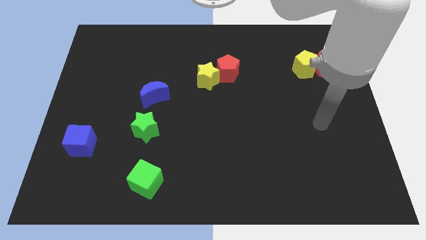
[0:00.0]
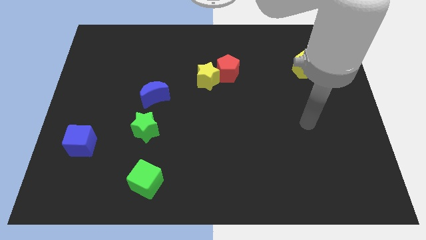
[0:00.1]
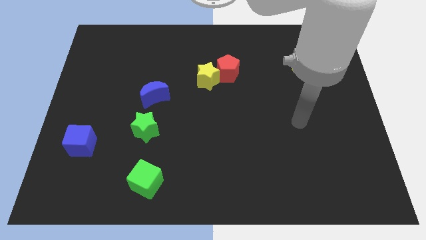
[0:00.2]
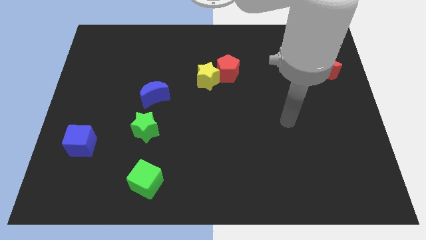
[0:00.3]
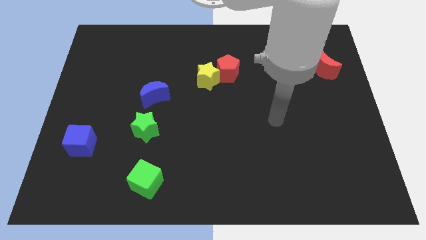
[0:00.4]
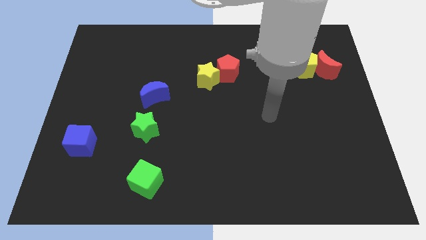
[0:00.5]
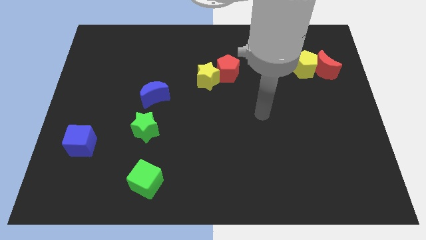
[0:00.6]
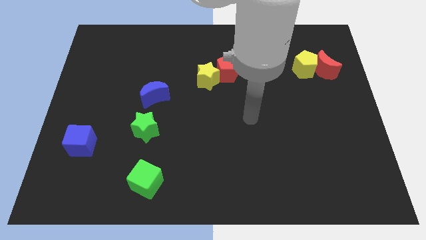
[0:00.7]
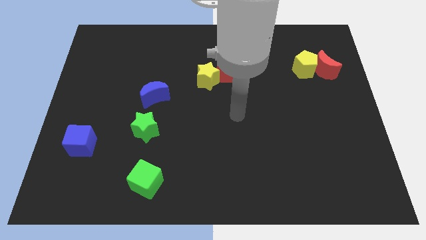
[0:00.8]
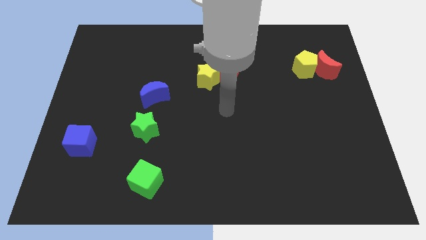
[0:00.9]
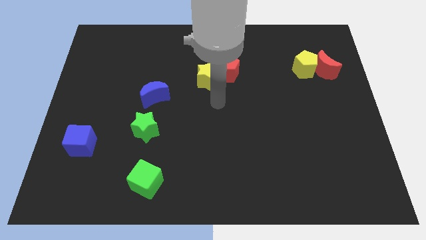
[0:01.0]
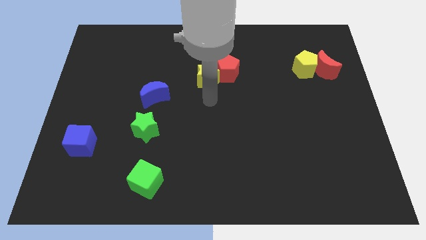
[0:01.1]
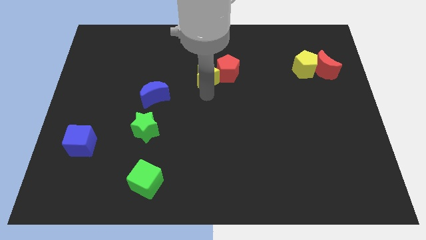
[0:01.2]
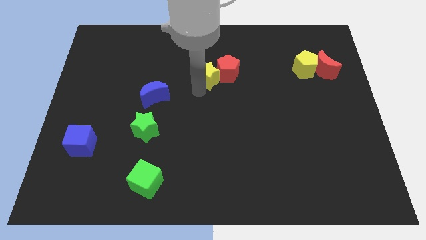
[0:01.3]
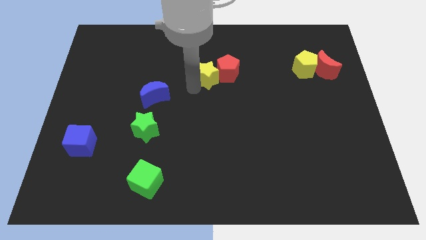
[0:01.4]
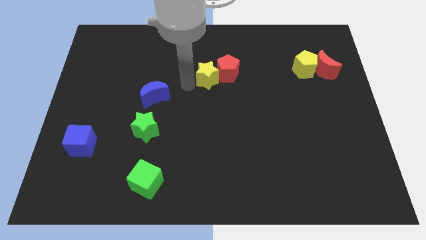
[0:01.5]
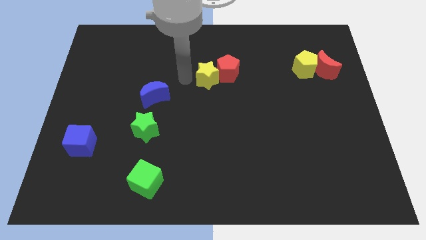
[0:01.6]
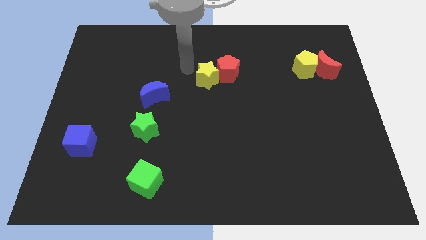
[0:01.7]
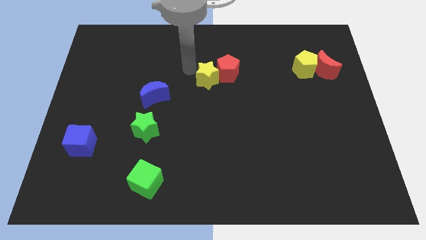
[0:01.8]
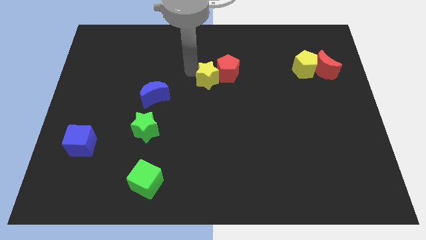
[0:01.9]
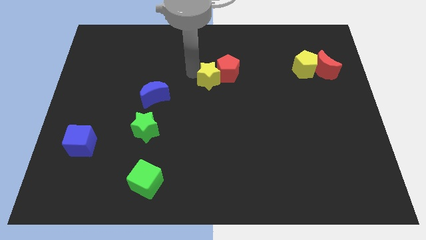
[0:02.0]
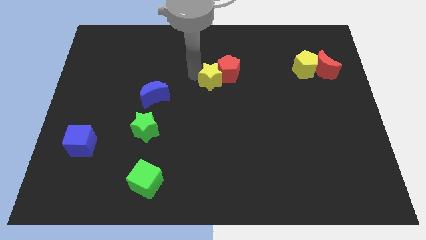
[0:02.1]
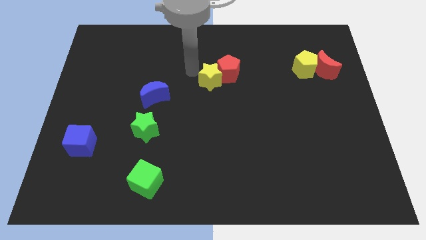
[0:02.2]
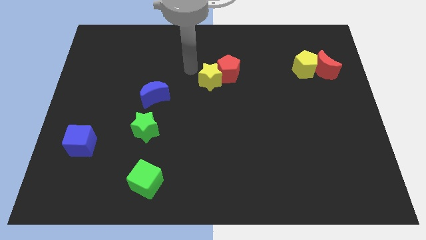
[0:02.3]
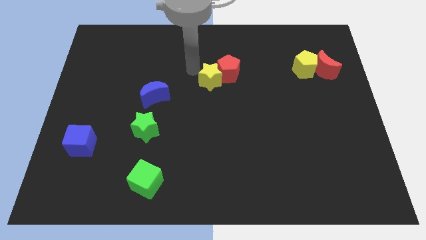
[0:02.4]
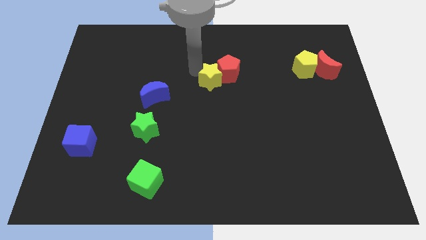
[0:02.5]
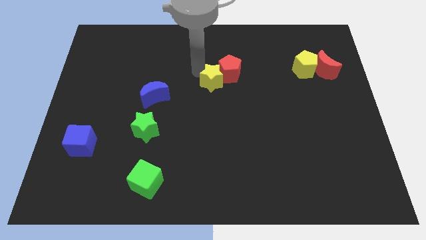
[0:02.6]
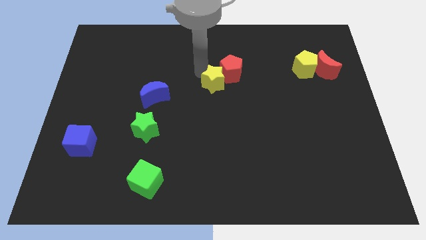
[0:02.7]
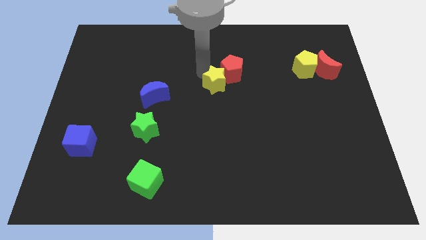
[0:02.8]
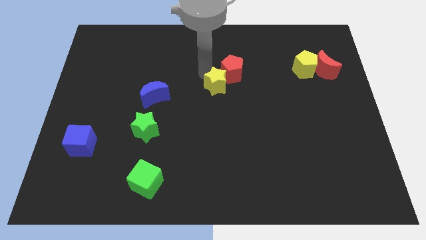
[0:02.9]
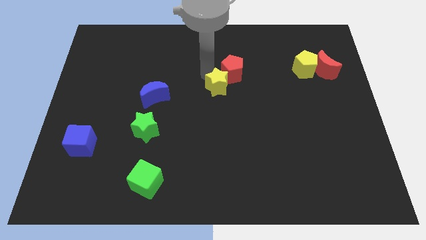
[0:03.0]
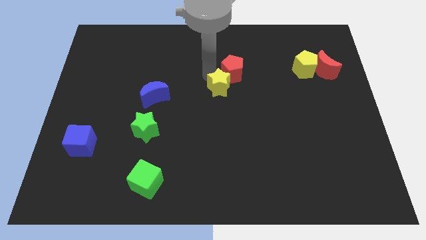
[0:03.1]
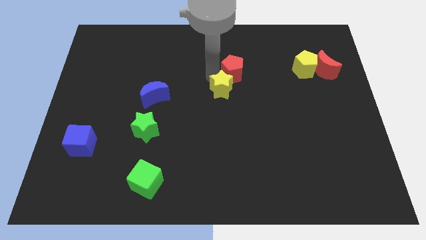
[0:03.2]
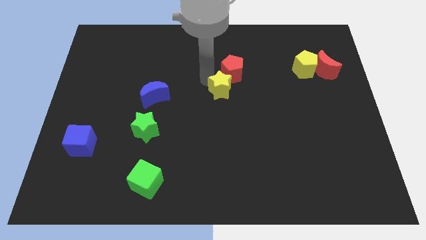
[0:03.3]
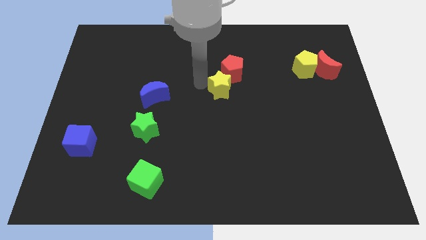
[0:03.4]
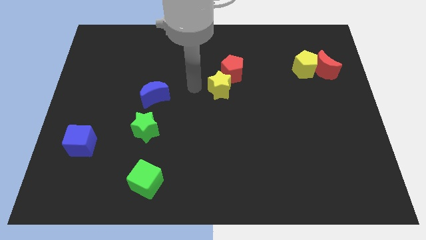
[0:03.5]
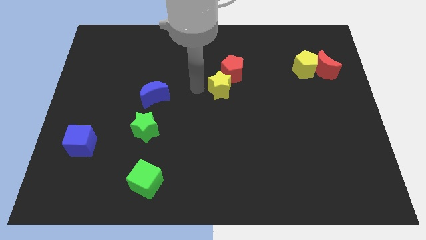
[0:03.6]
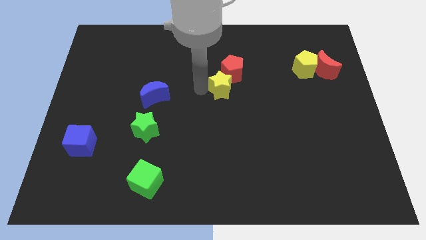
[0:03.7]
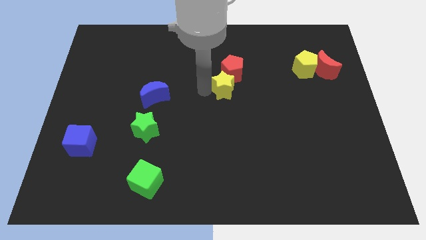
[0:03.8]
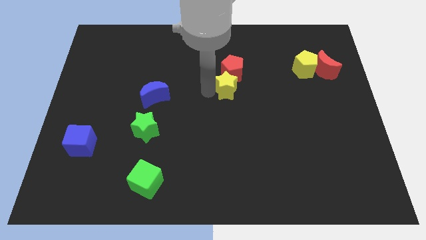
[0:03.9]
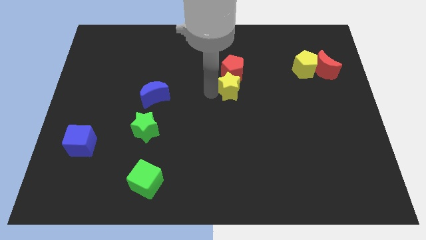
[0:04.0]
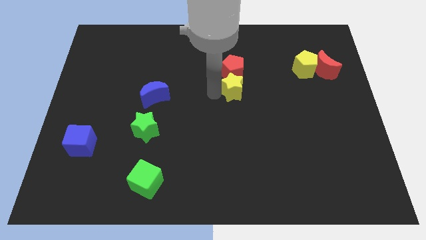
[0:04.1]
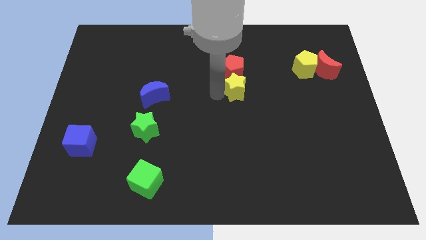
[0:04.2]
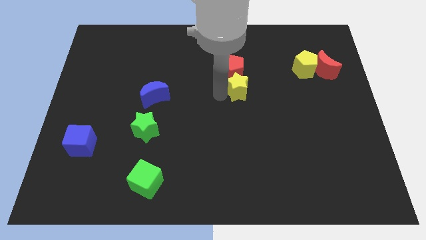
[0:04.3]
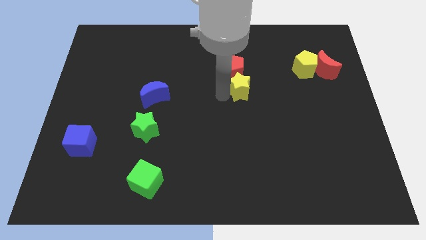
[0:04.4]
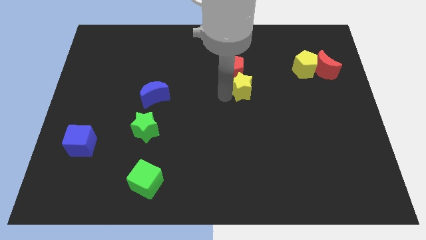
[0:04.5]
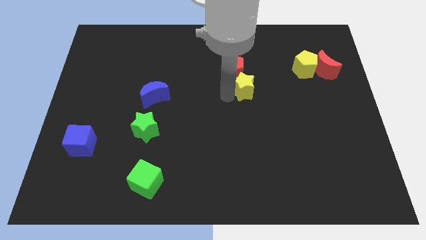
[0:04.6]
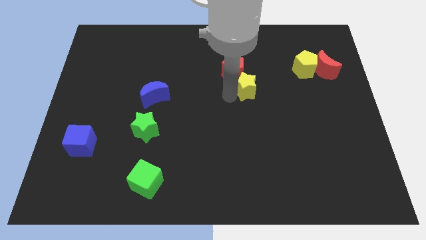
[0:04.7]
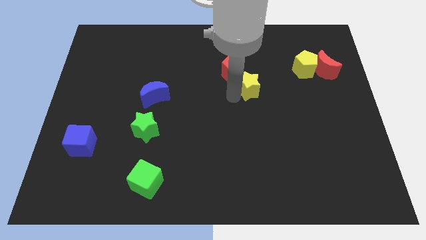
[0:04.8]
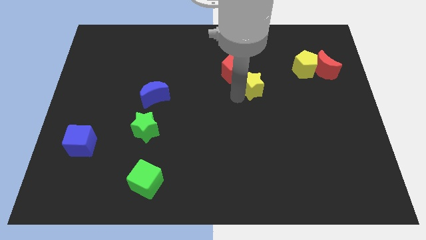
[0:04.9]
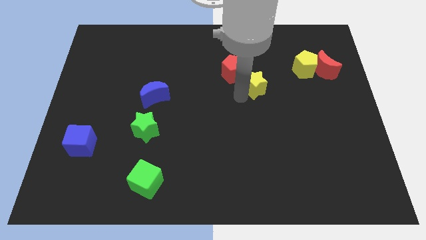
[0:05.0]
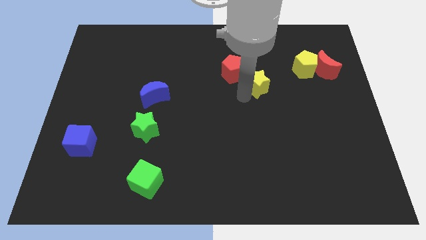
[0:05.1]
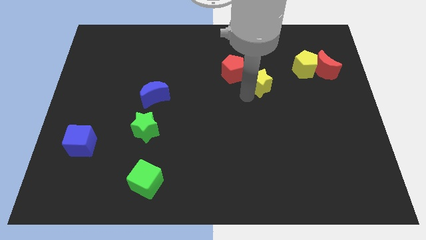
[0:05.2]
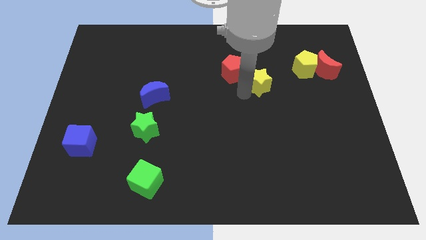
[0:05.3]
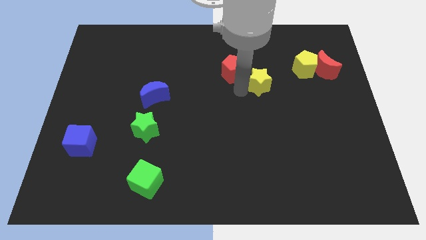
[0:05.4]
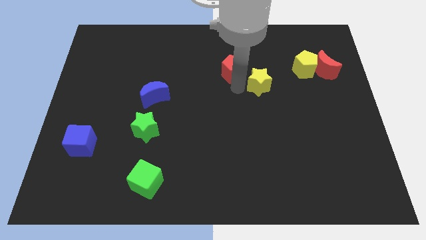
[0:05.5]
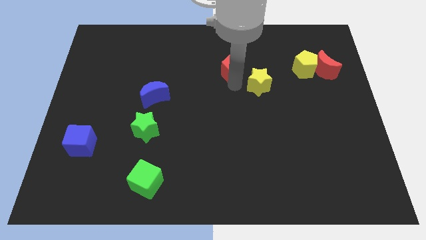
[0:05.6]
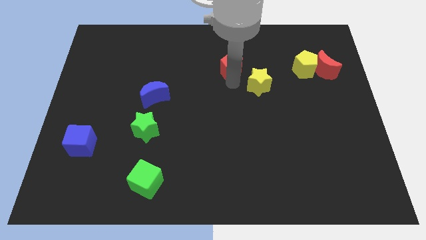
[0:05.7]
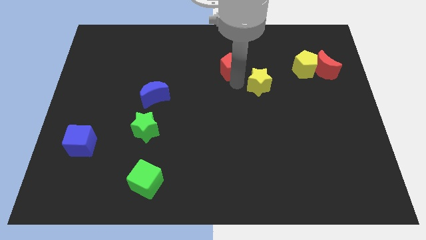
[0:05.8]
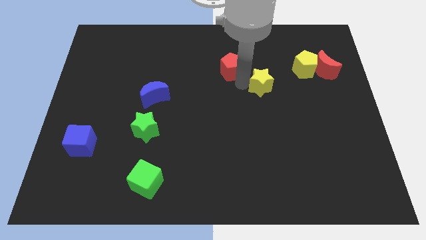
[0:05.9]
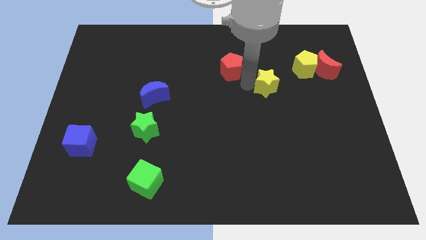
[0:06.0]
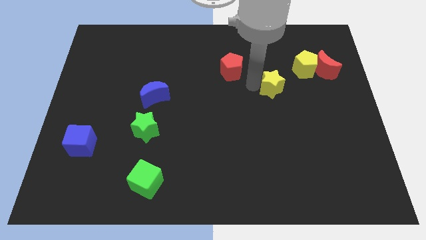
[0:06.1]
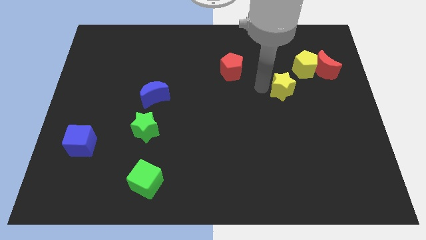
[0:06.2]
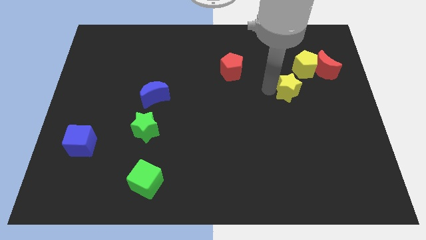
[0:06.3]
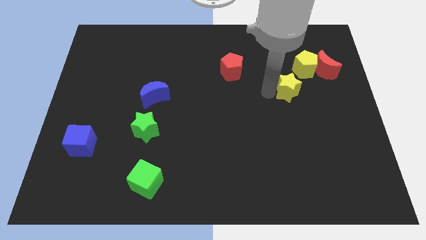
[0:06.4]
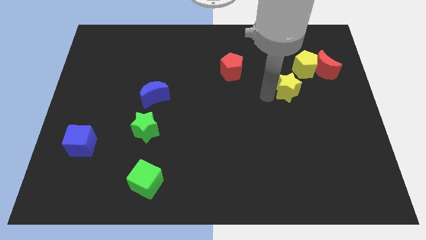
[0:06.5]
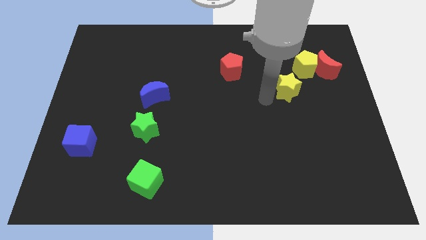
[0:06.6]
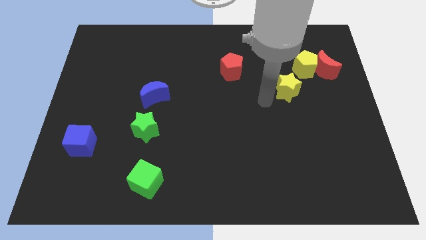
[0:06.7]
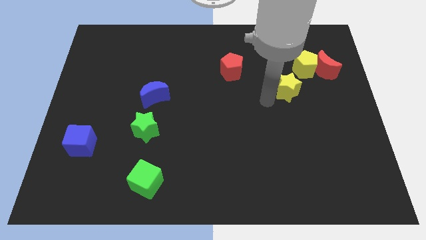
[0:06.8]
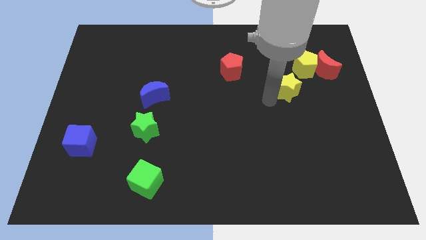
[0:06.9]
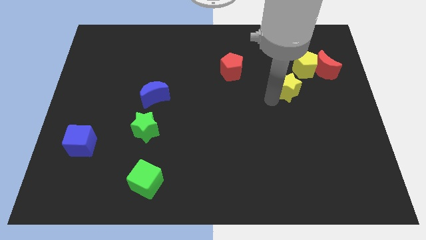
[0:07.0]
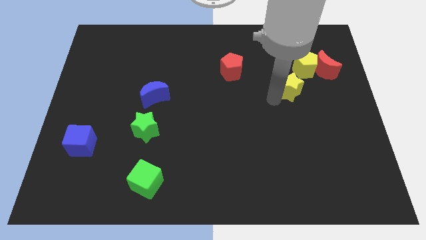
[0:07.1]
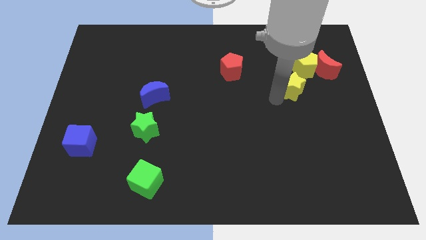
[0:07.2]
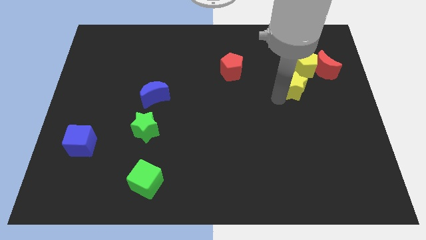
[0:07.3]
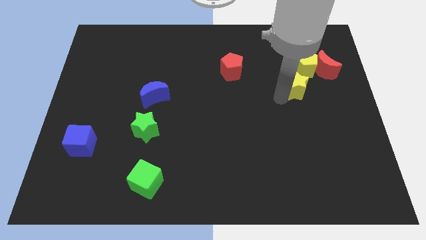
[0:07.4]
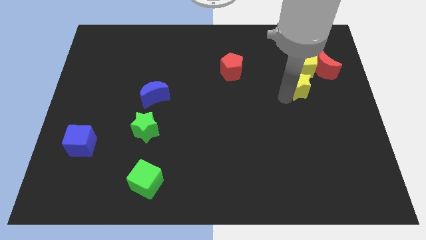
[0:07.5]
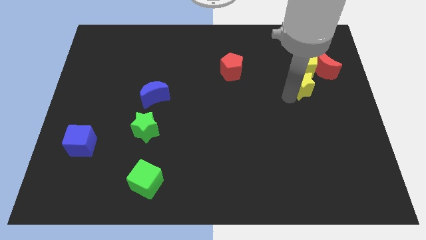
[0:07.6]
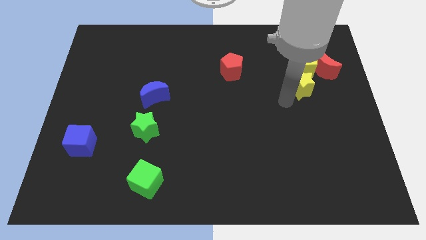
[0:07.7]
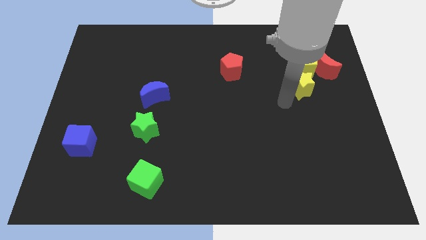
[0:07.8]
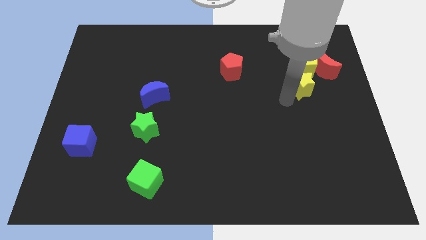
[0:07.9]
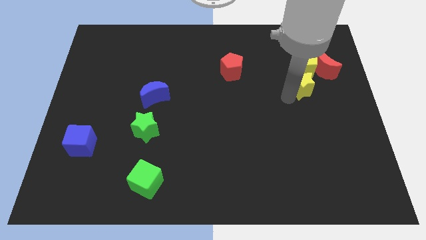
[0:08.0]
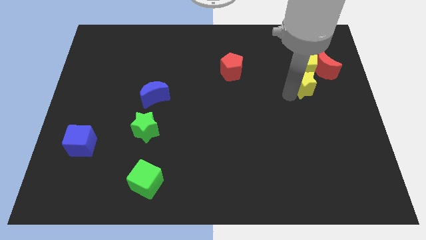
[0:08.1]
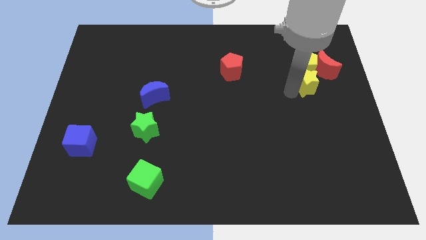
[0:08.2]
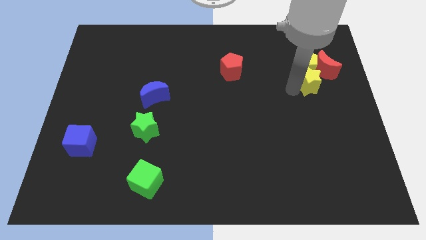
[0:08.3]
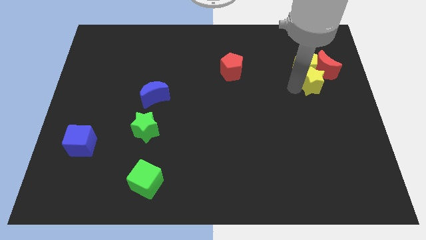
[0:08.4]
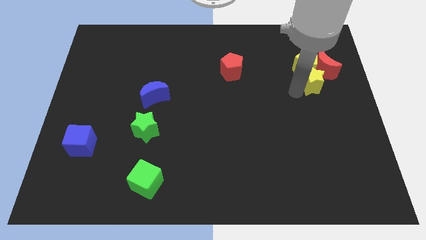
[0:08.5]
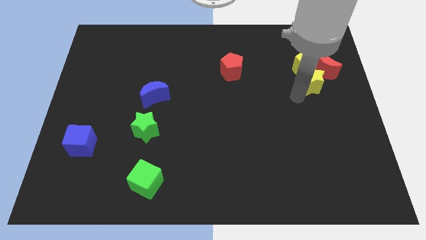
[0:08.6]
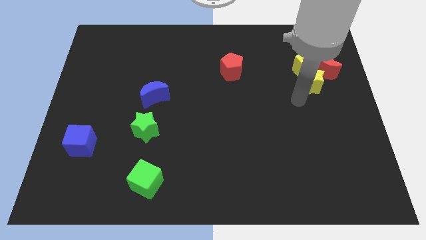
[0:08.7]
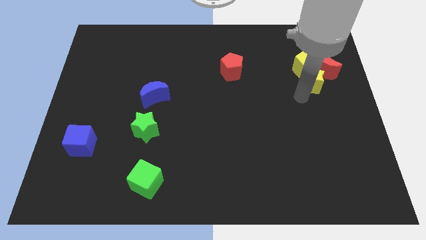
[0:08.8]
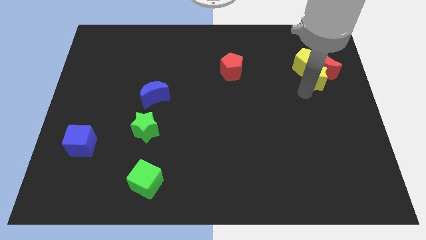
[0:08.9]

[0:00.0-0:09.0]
slide the yellow star to the red moon
